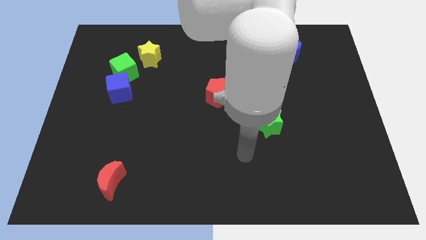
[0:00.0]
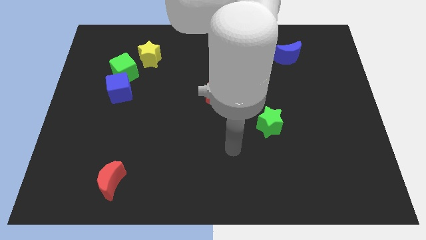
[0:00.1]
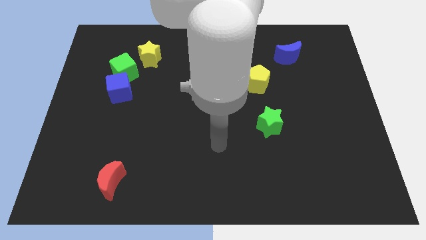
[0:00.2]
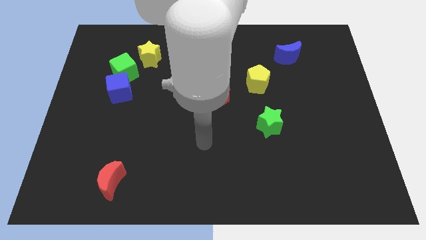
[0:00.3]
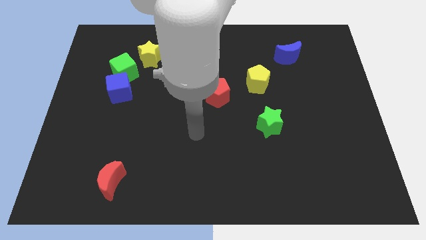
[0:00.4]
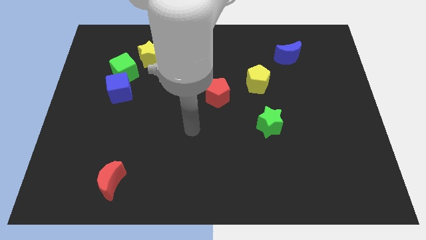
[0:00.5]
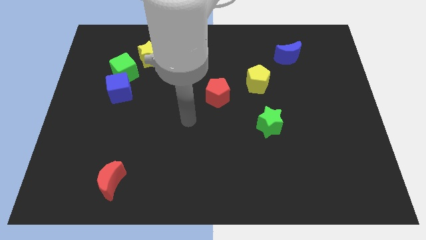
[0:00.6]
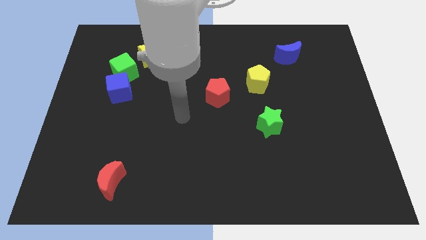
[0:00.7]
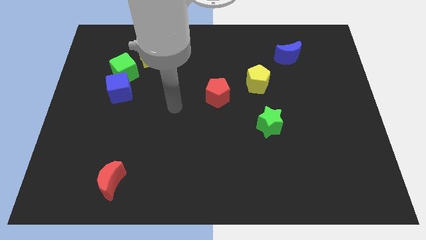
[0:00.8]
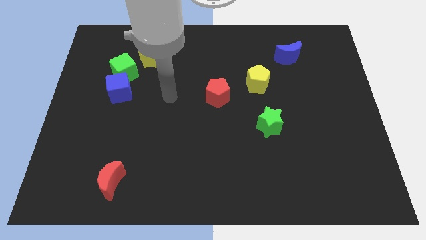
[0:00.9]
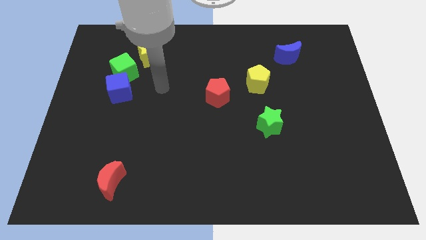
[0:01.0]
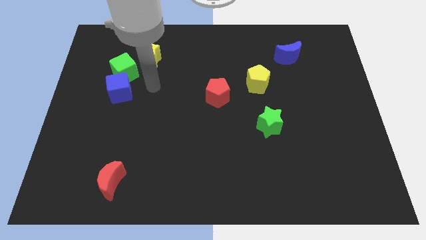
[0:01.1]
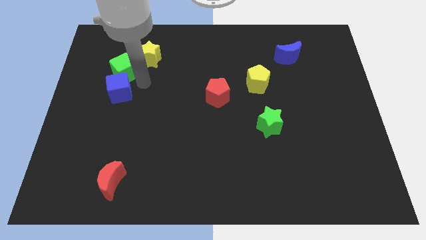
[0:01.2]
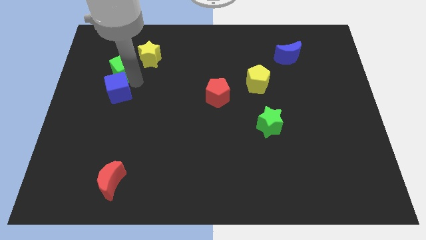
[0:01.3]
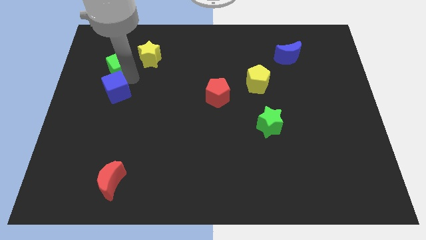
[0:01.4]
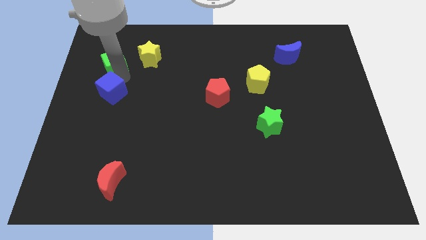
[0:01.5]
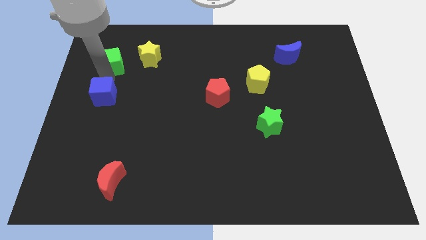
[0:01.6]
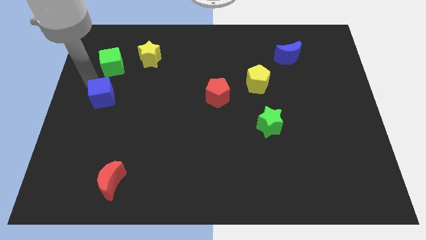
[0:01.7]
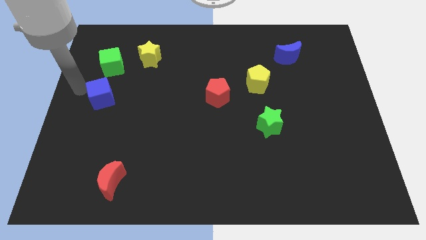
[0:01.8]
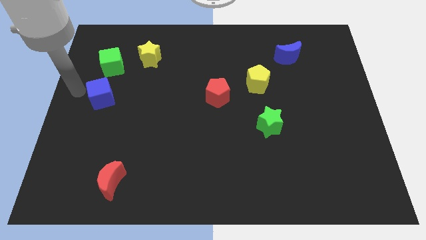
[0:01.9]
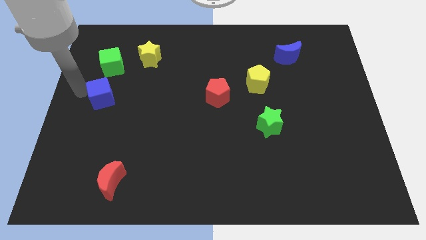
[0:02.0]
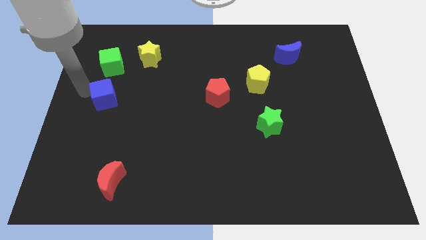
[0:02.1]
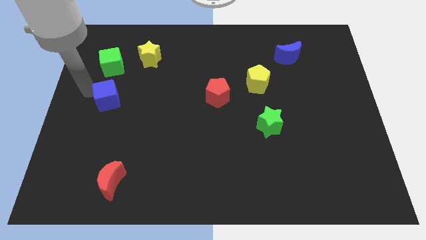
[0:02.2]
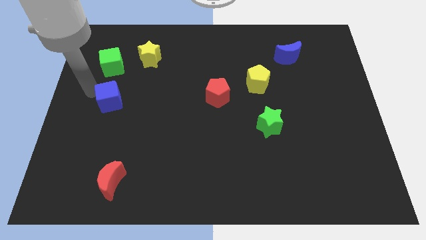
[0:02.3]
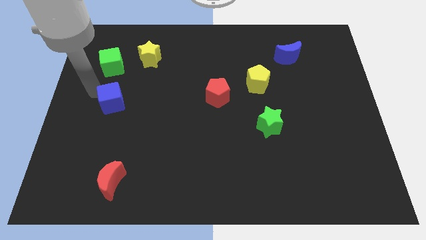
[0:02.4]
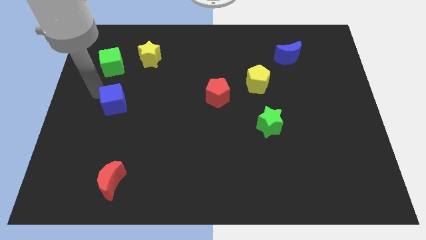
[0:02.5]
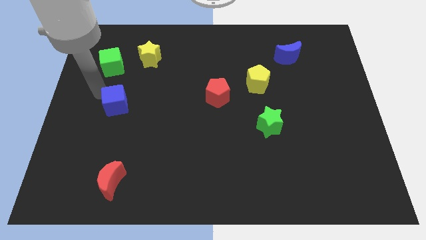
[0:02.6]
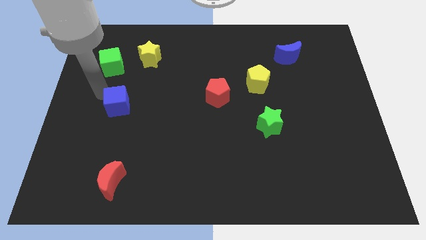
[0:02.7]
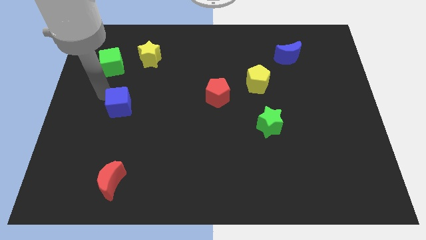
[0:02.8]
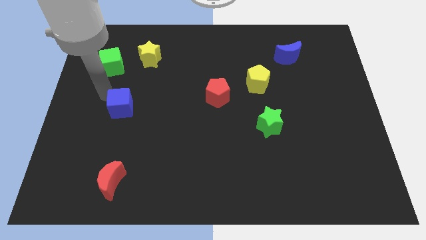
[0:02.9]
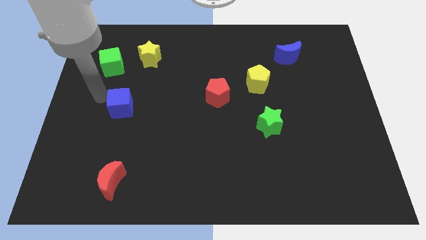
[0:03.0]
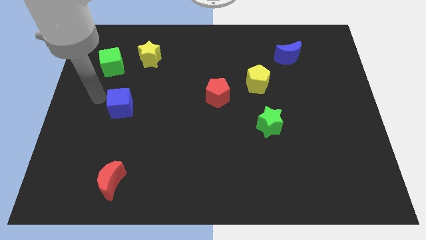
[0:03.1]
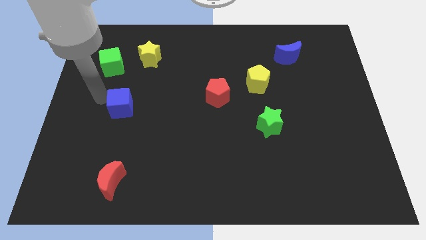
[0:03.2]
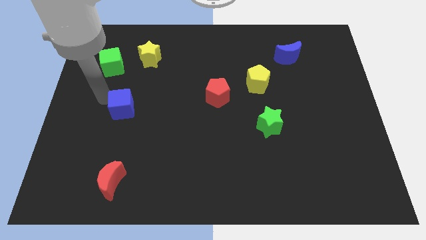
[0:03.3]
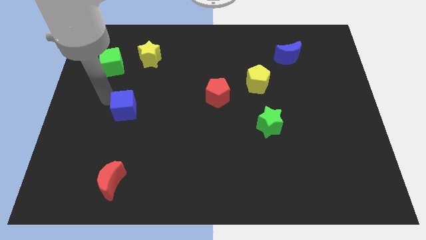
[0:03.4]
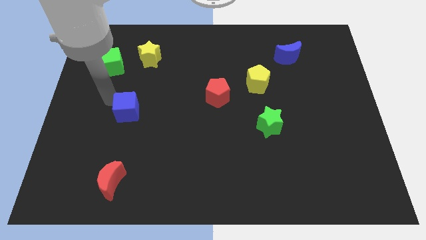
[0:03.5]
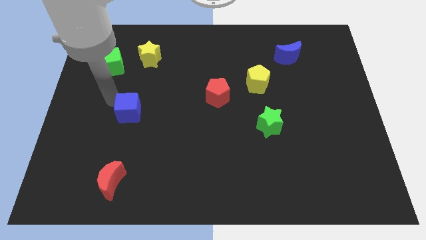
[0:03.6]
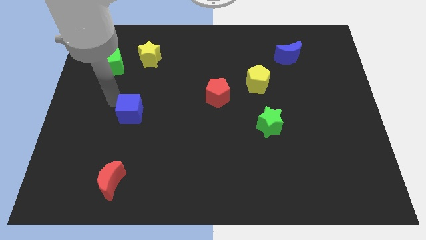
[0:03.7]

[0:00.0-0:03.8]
push the blue cube downwards and to the right diagonally somewhat

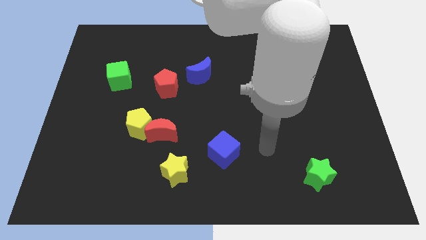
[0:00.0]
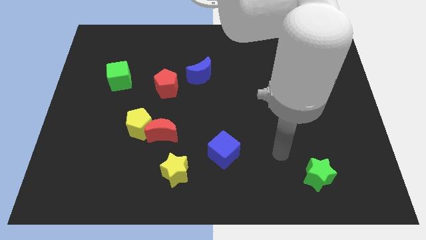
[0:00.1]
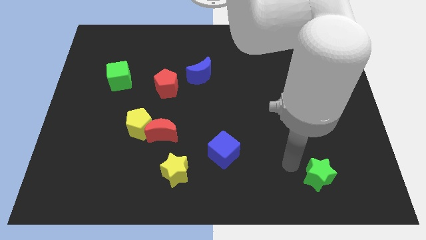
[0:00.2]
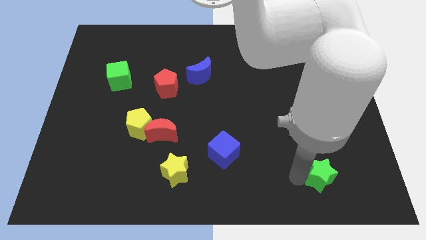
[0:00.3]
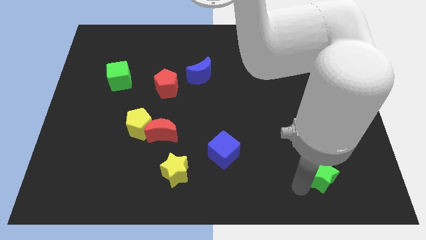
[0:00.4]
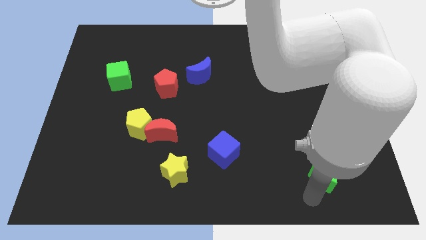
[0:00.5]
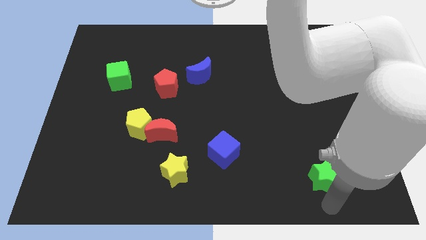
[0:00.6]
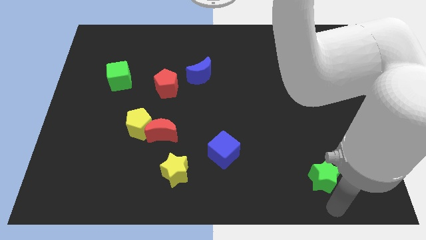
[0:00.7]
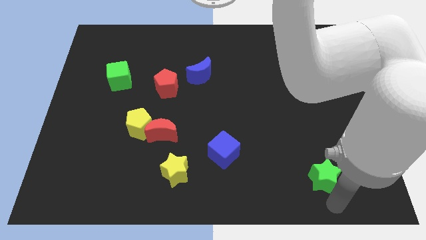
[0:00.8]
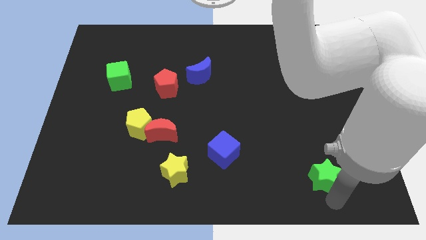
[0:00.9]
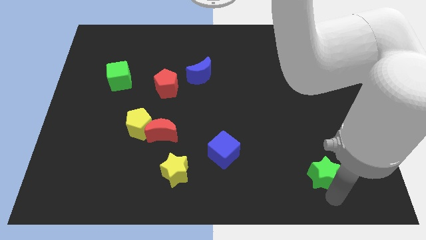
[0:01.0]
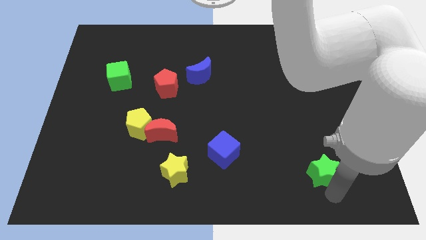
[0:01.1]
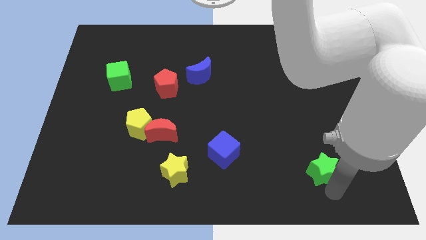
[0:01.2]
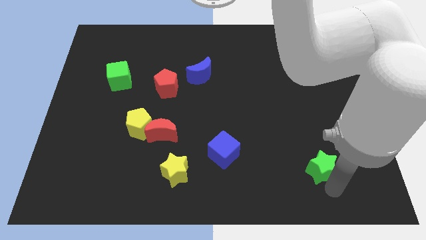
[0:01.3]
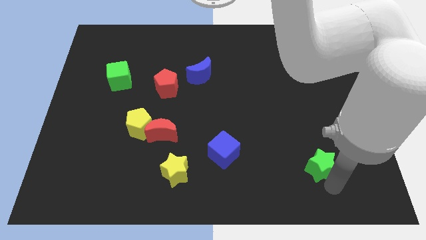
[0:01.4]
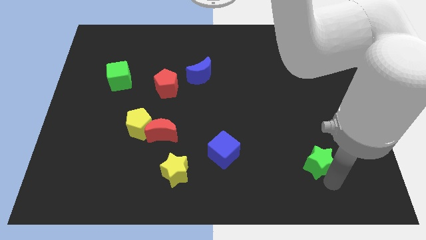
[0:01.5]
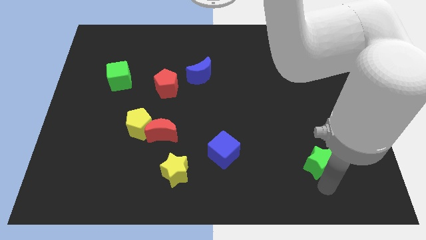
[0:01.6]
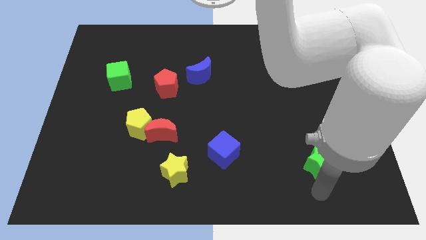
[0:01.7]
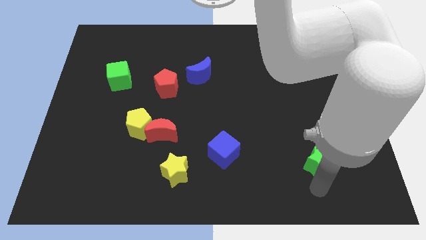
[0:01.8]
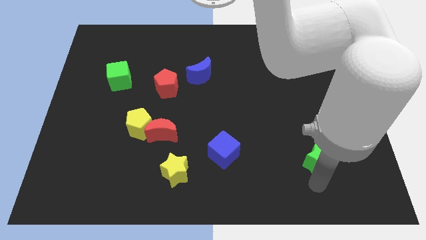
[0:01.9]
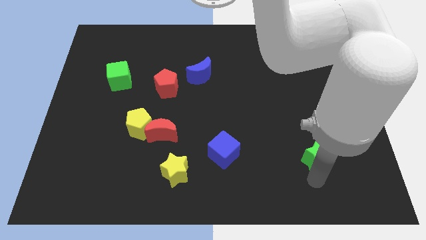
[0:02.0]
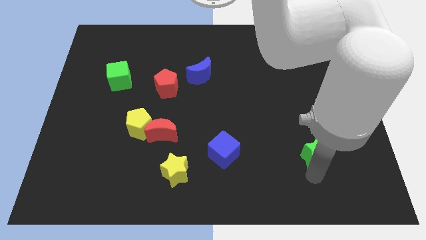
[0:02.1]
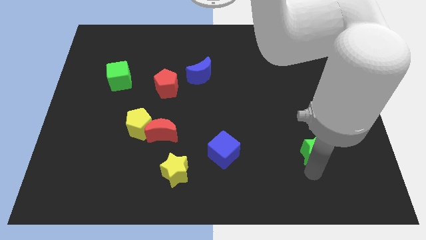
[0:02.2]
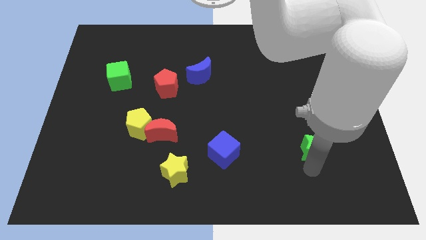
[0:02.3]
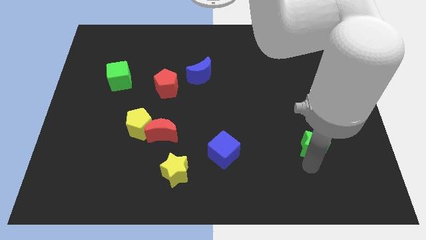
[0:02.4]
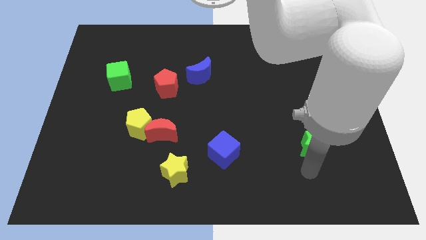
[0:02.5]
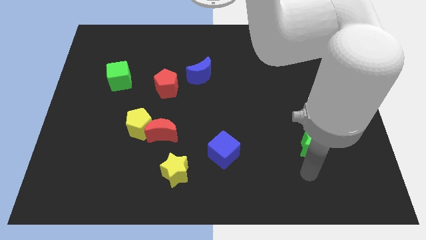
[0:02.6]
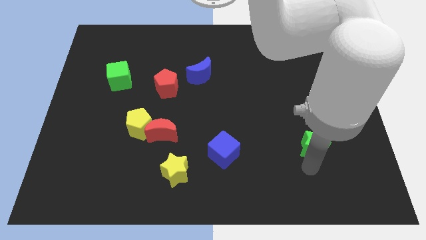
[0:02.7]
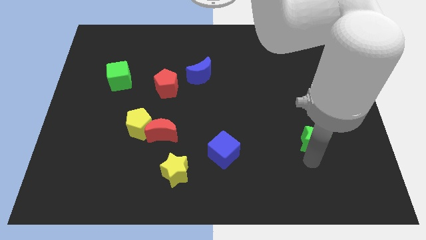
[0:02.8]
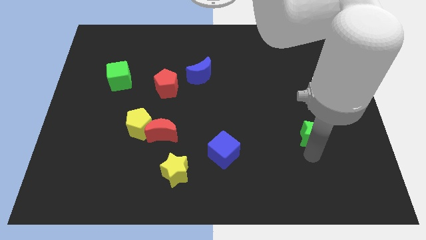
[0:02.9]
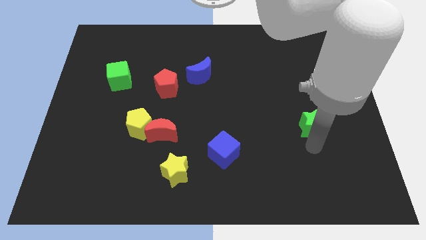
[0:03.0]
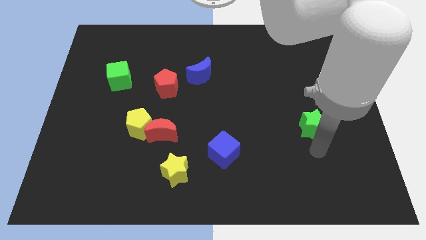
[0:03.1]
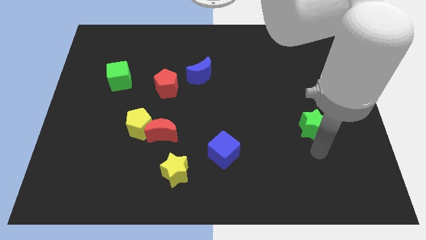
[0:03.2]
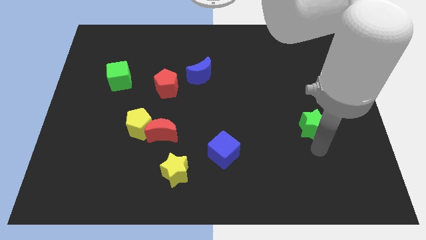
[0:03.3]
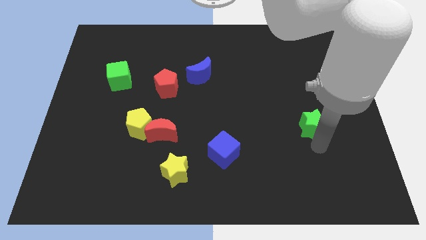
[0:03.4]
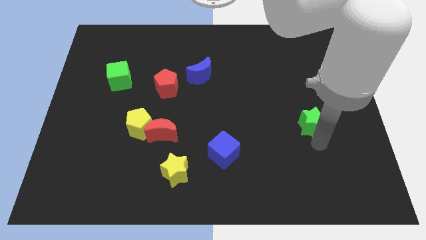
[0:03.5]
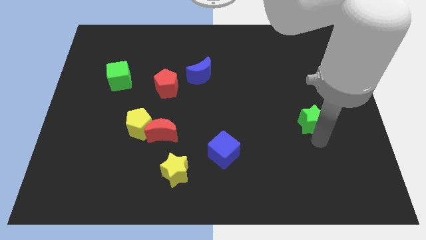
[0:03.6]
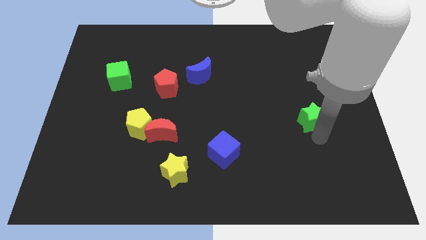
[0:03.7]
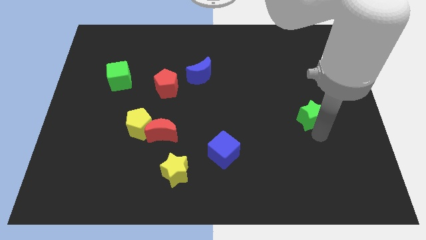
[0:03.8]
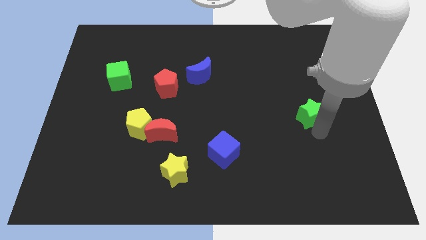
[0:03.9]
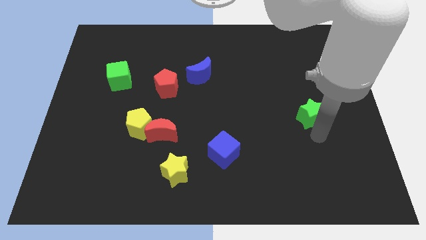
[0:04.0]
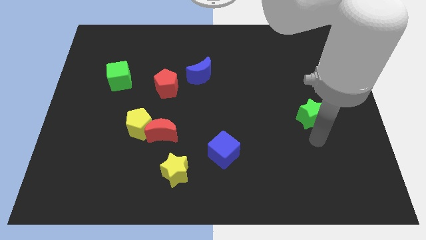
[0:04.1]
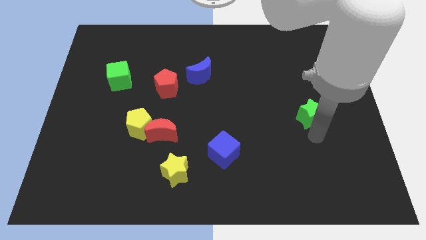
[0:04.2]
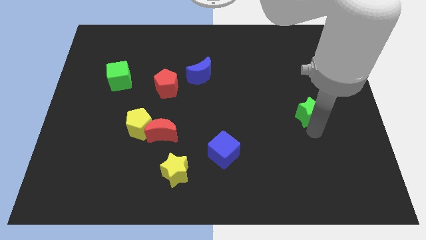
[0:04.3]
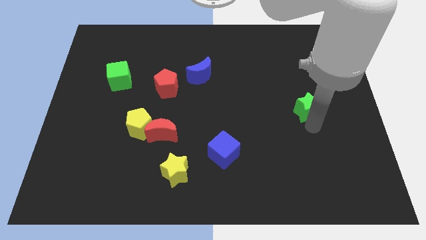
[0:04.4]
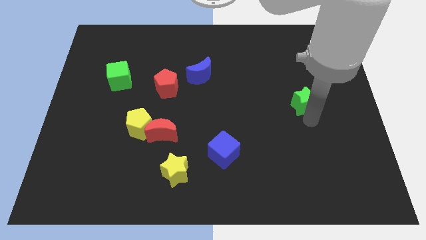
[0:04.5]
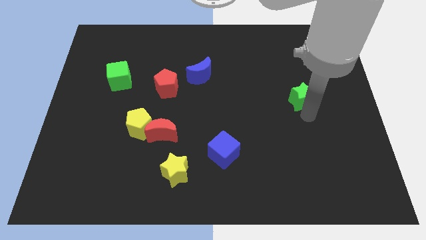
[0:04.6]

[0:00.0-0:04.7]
slide the green star up
